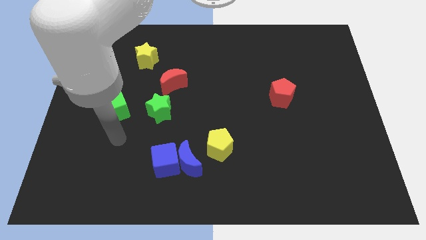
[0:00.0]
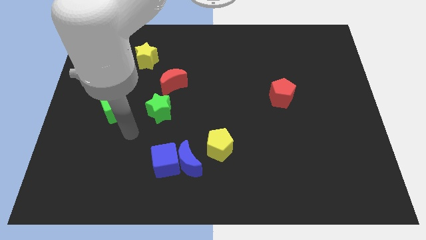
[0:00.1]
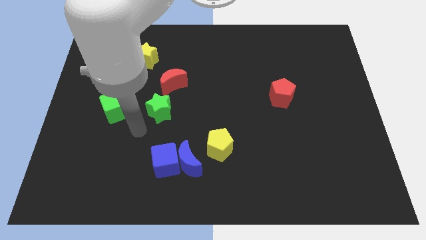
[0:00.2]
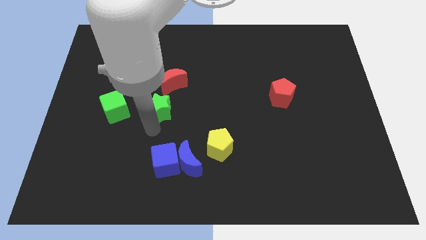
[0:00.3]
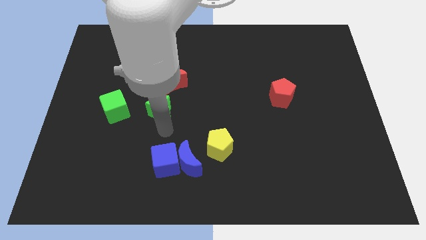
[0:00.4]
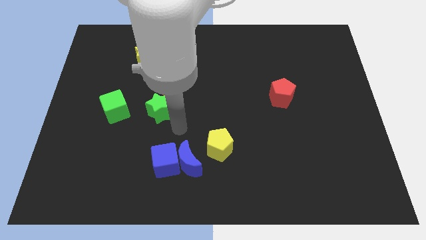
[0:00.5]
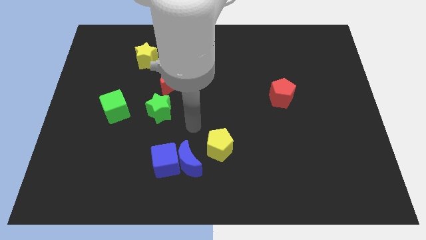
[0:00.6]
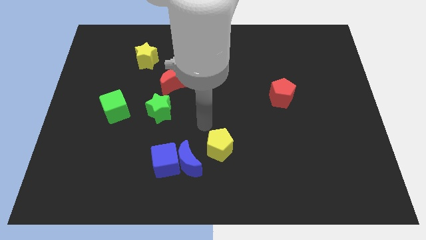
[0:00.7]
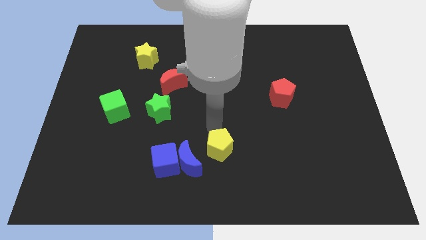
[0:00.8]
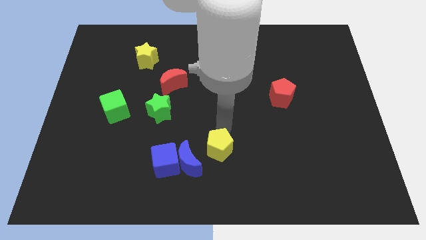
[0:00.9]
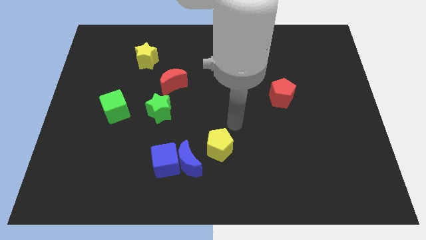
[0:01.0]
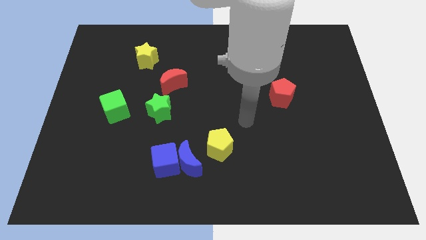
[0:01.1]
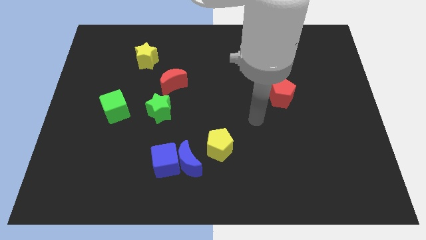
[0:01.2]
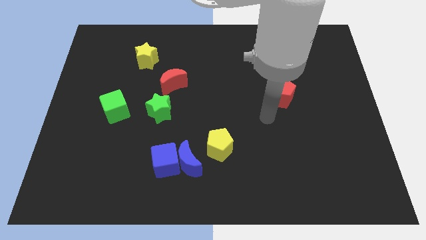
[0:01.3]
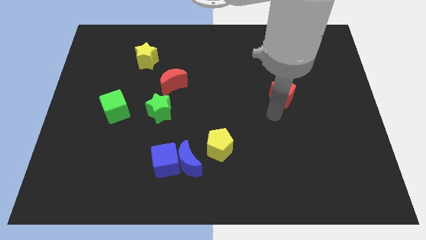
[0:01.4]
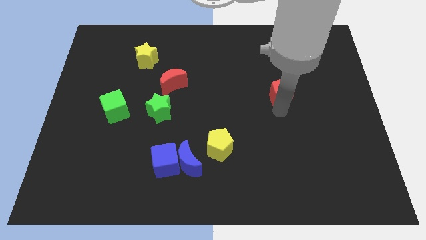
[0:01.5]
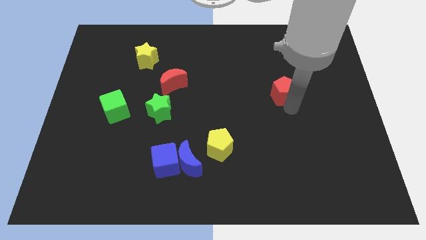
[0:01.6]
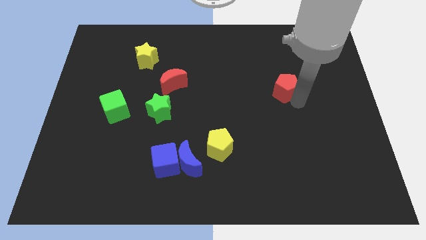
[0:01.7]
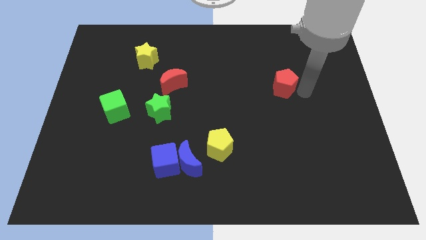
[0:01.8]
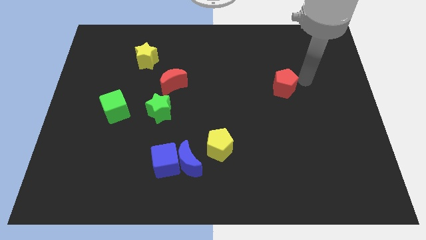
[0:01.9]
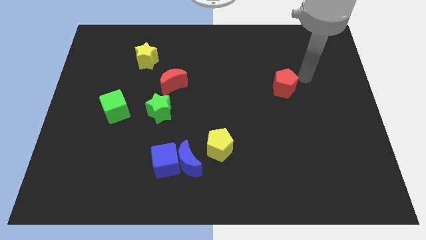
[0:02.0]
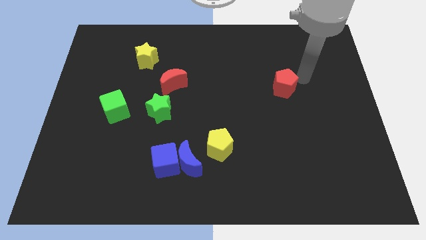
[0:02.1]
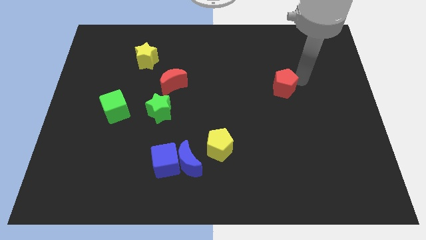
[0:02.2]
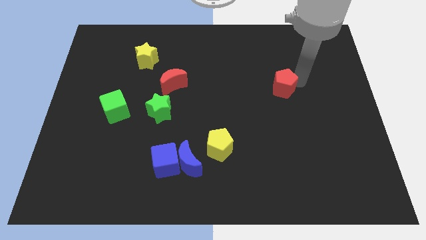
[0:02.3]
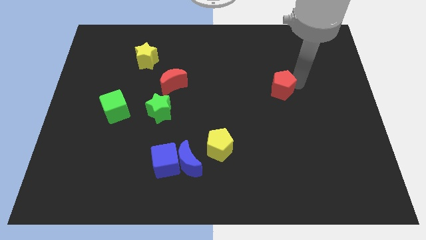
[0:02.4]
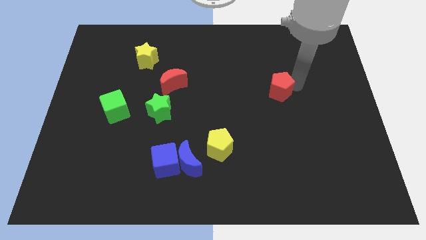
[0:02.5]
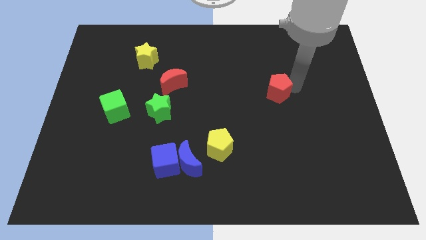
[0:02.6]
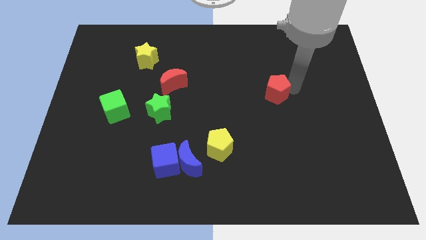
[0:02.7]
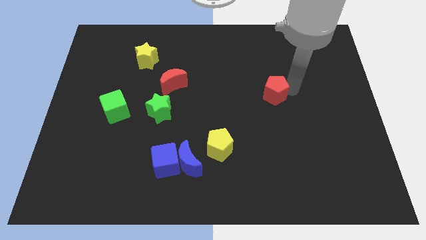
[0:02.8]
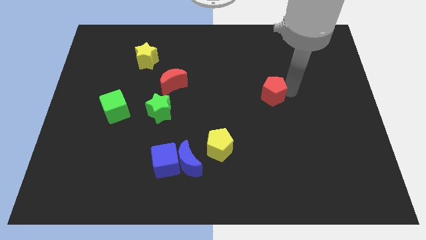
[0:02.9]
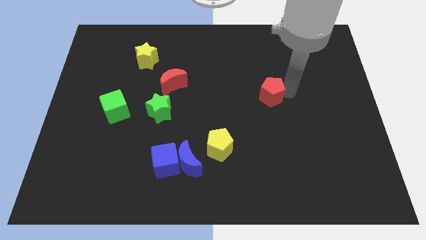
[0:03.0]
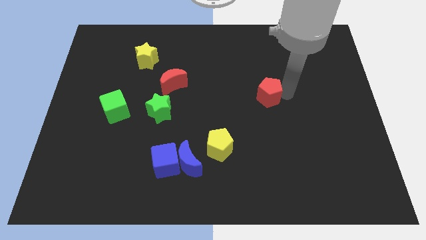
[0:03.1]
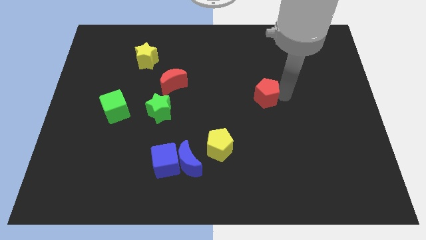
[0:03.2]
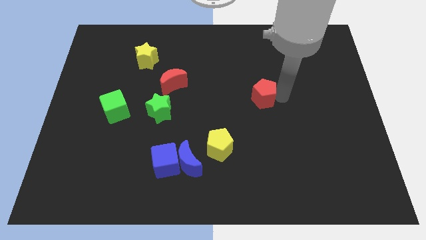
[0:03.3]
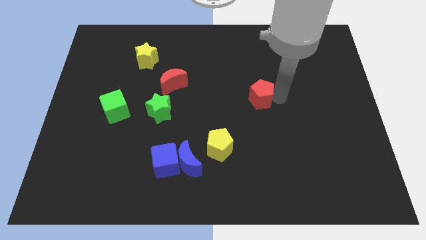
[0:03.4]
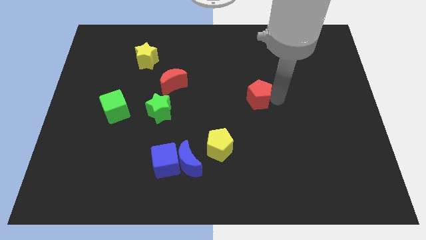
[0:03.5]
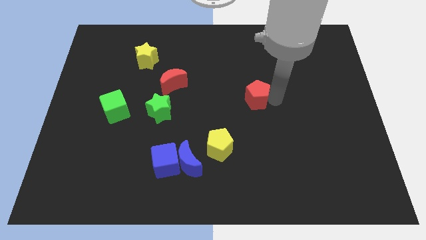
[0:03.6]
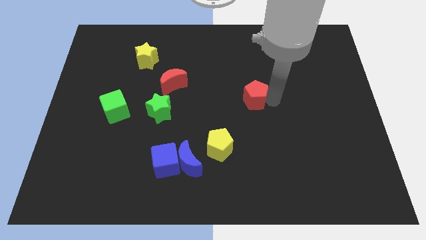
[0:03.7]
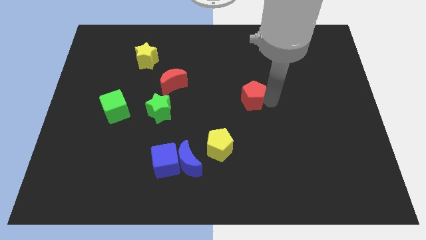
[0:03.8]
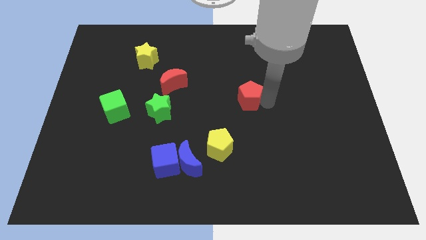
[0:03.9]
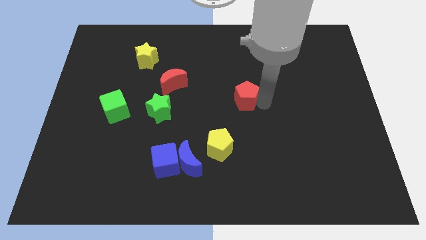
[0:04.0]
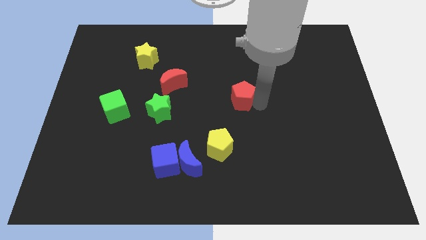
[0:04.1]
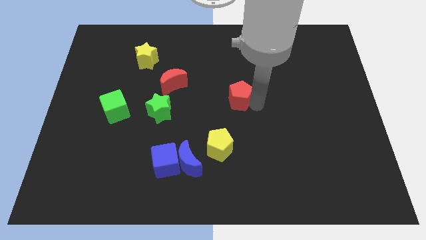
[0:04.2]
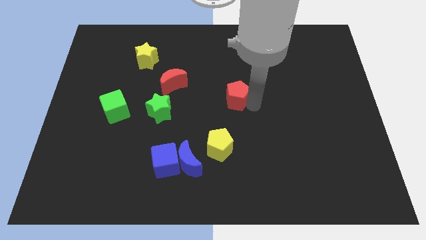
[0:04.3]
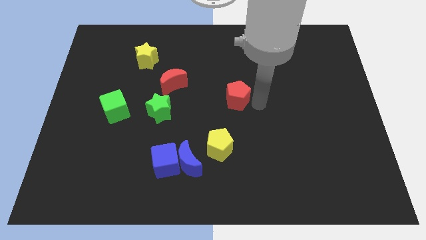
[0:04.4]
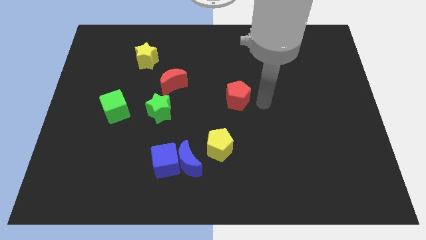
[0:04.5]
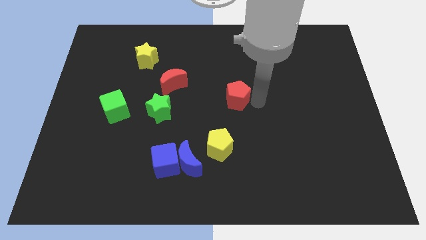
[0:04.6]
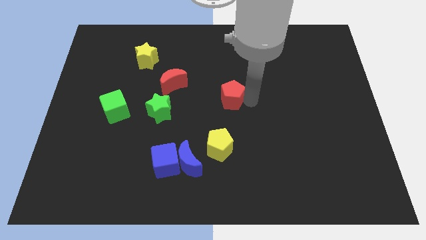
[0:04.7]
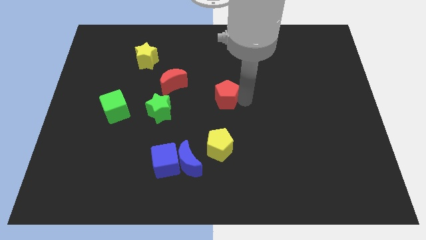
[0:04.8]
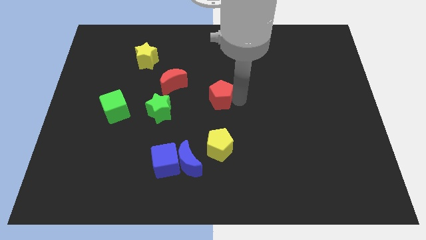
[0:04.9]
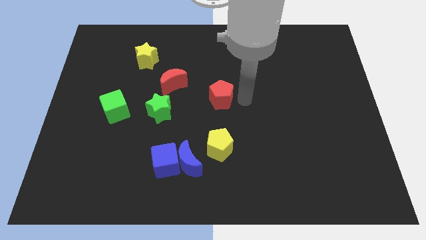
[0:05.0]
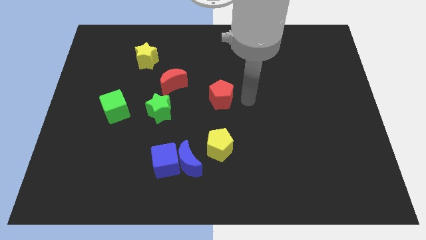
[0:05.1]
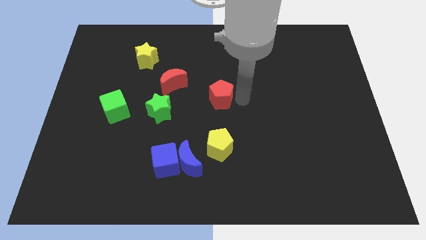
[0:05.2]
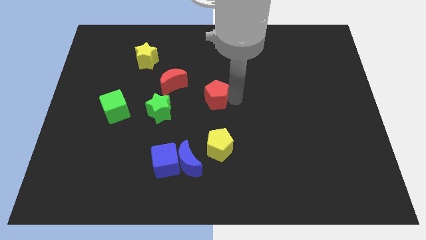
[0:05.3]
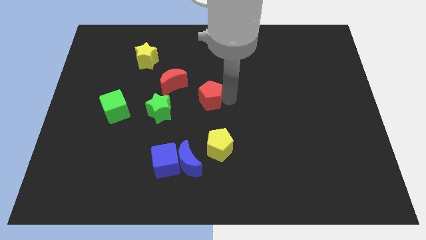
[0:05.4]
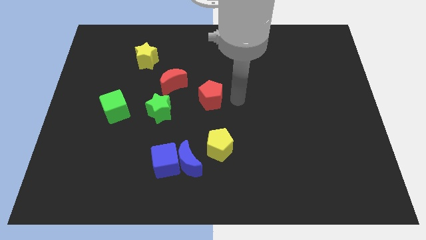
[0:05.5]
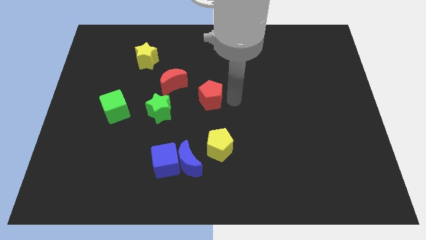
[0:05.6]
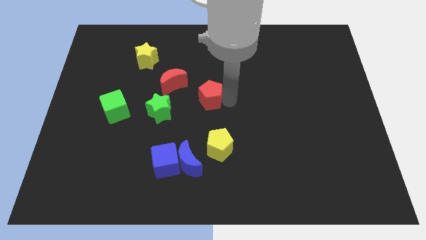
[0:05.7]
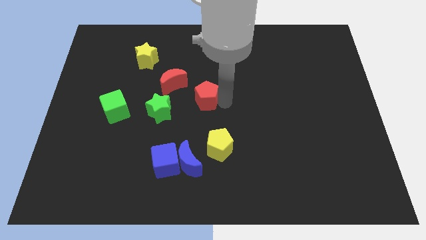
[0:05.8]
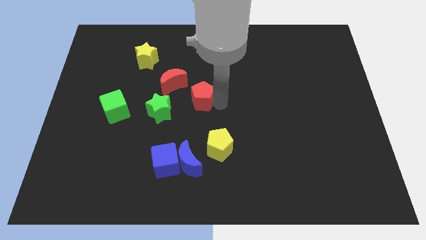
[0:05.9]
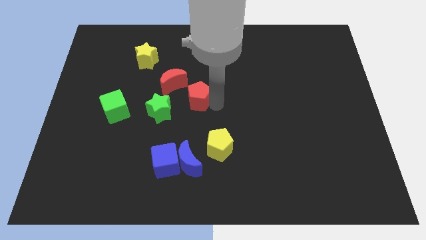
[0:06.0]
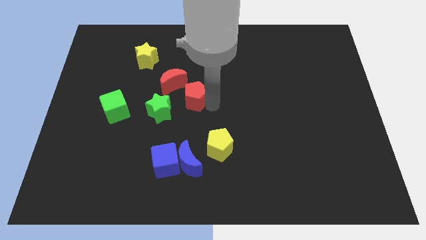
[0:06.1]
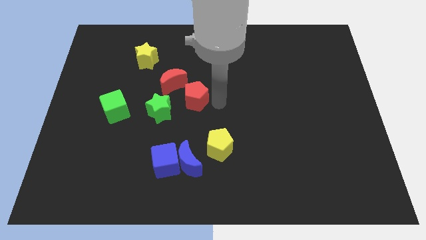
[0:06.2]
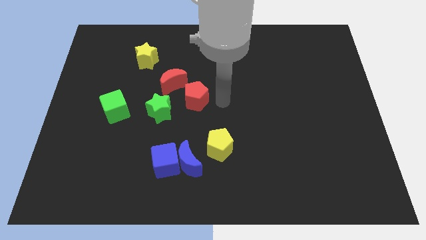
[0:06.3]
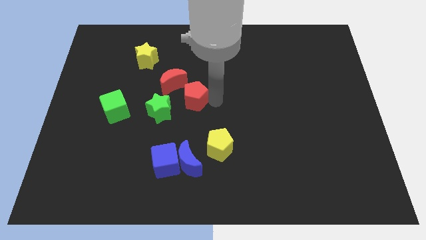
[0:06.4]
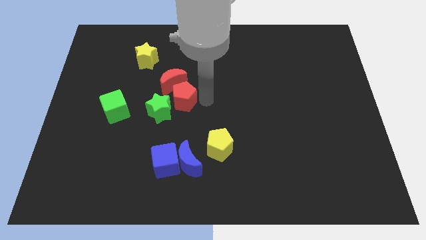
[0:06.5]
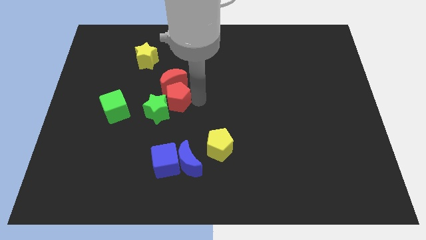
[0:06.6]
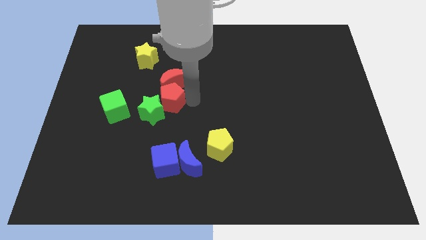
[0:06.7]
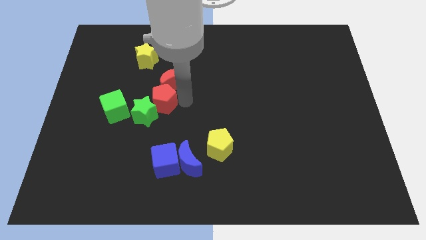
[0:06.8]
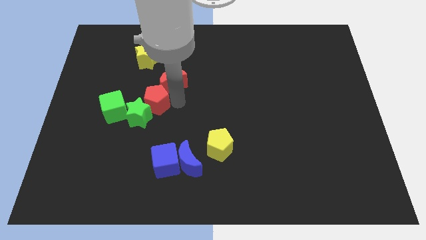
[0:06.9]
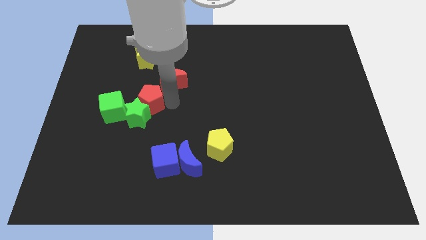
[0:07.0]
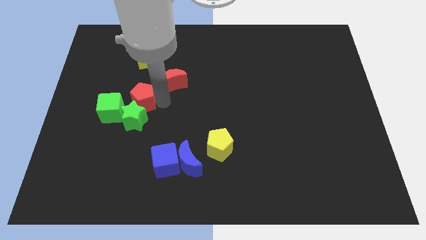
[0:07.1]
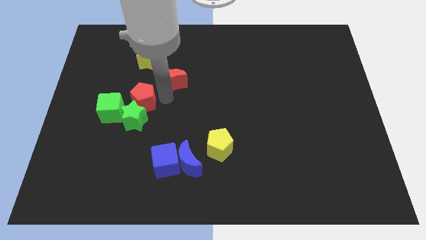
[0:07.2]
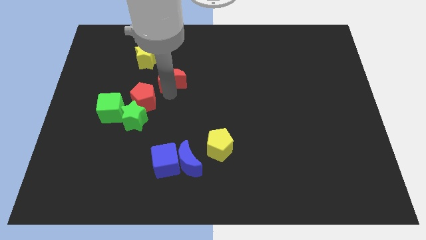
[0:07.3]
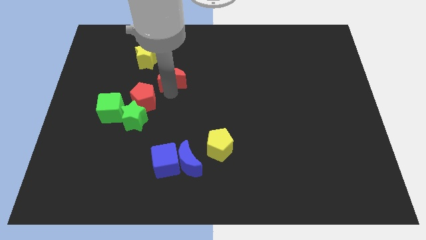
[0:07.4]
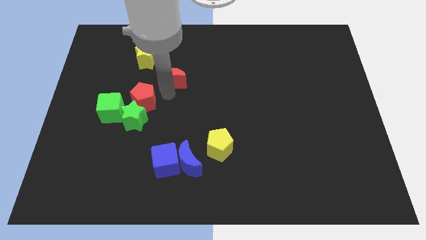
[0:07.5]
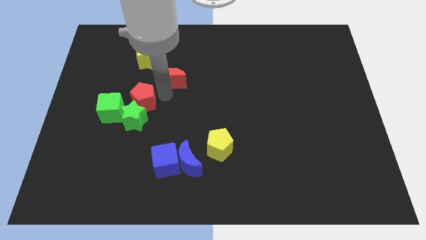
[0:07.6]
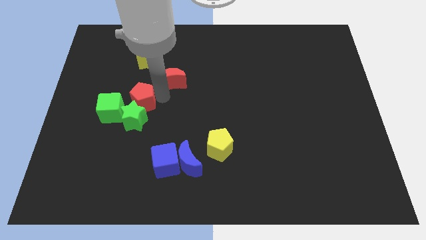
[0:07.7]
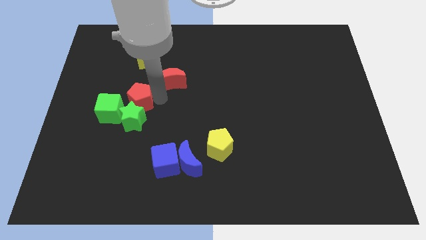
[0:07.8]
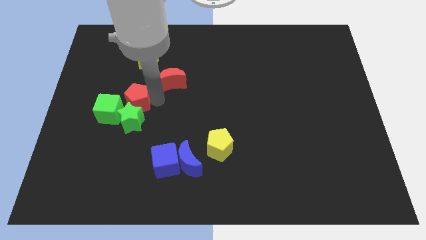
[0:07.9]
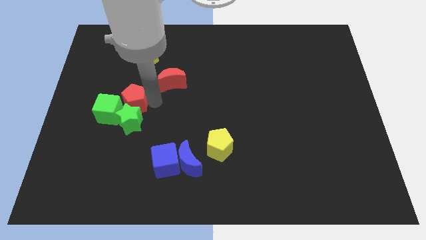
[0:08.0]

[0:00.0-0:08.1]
slide the red pentagon to the green cube
